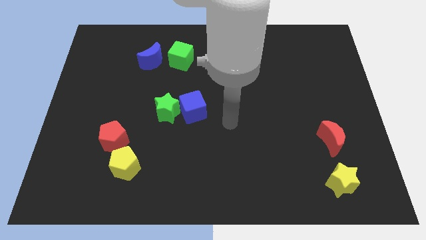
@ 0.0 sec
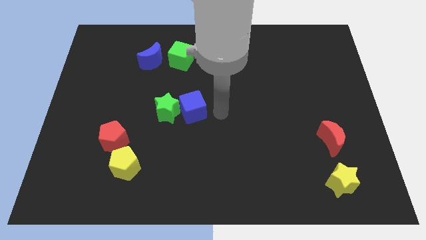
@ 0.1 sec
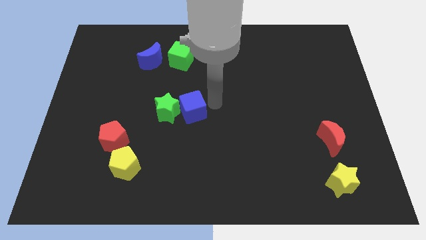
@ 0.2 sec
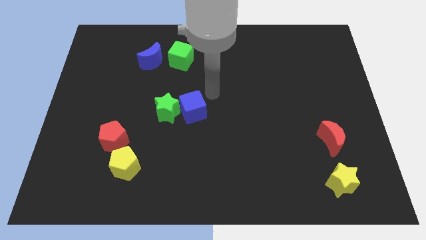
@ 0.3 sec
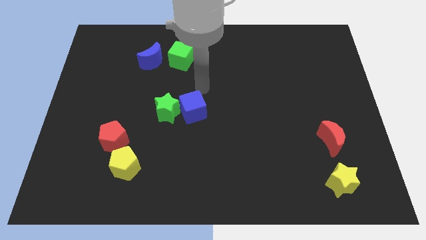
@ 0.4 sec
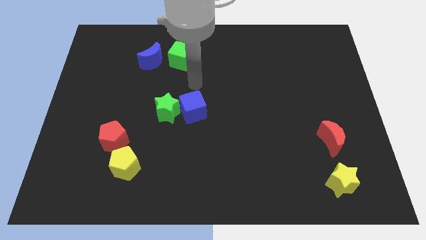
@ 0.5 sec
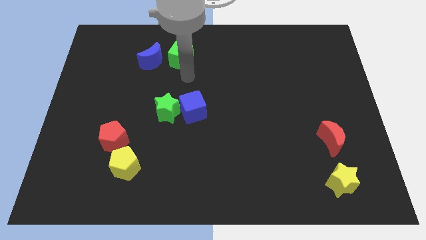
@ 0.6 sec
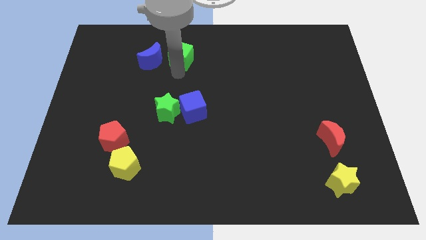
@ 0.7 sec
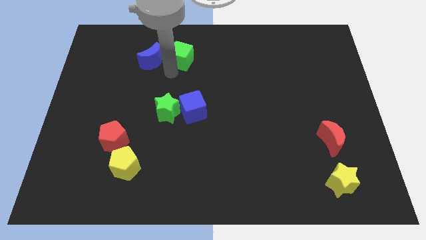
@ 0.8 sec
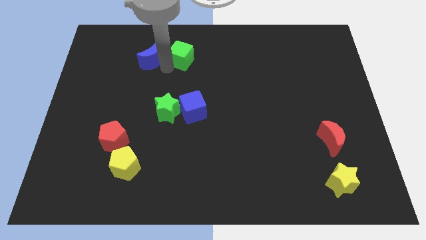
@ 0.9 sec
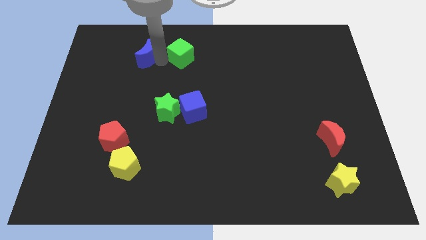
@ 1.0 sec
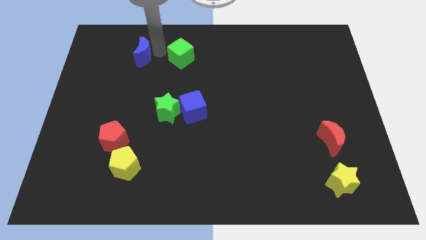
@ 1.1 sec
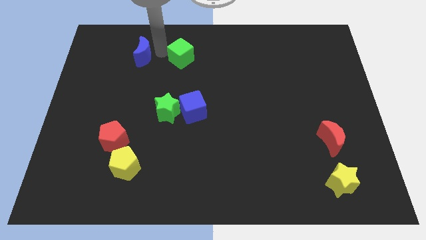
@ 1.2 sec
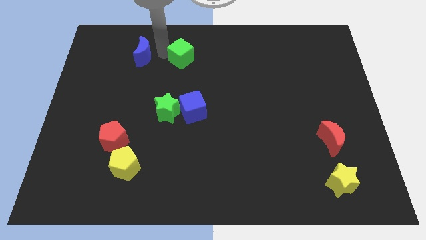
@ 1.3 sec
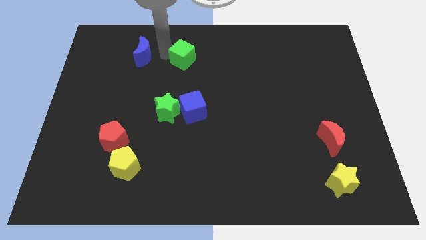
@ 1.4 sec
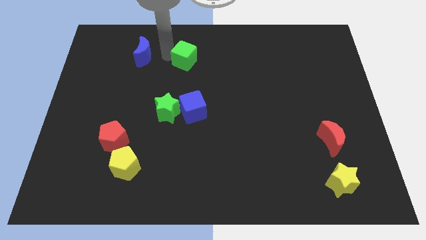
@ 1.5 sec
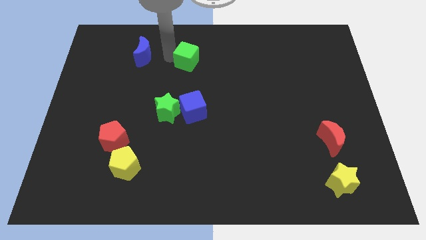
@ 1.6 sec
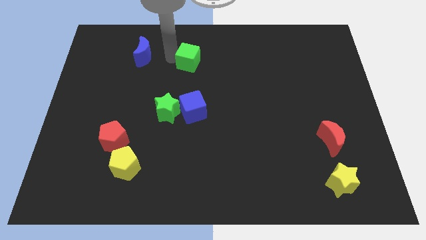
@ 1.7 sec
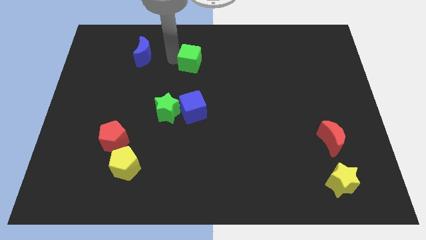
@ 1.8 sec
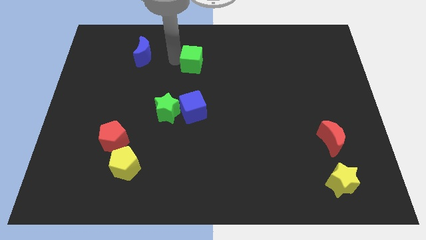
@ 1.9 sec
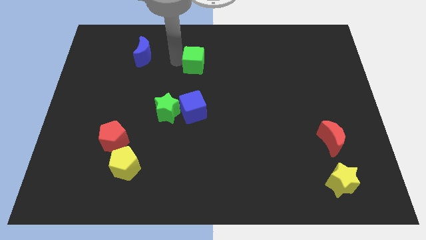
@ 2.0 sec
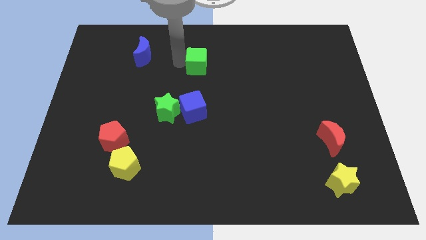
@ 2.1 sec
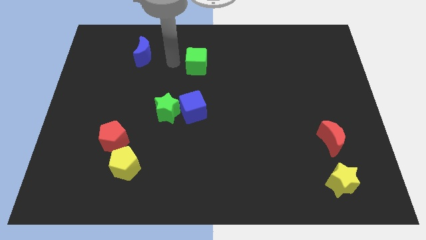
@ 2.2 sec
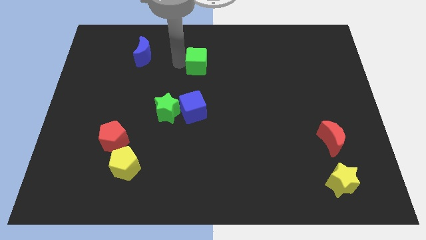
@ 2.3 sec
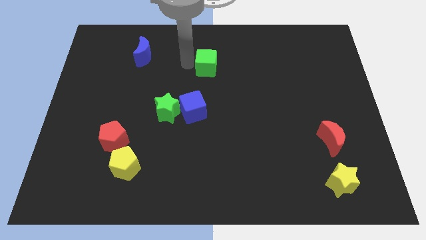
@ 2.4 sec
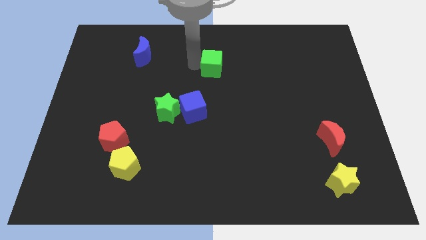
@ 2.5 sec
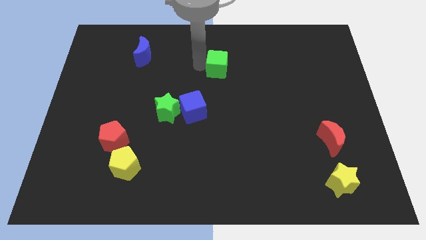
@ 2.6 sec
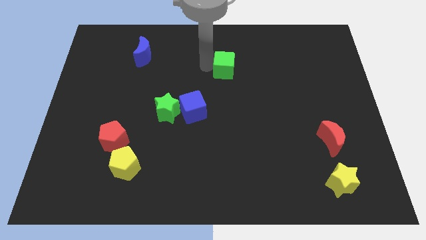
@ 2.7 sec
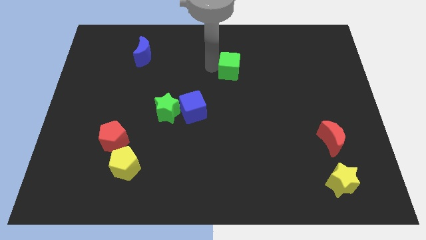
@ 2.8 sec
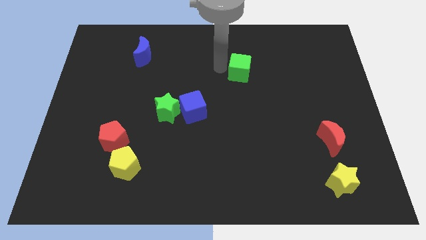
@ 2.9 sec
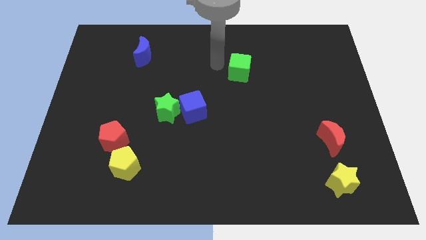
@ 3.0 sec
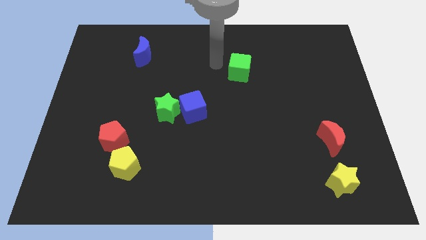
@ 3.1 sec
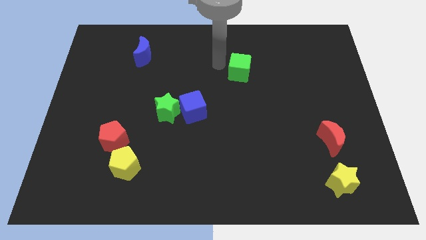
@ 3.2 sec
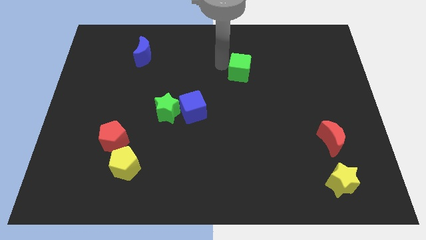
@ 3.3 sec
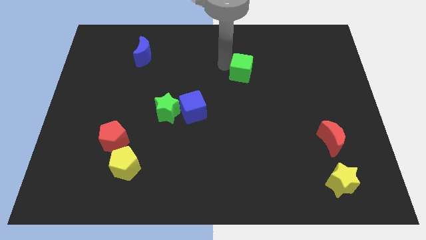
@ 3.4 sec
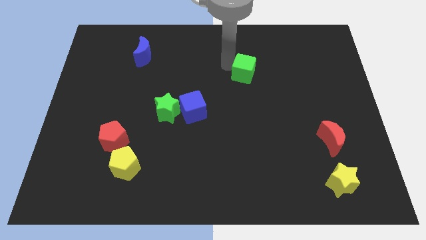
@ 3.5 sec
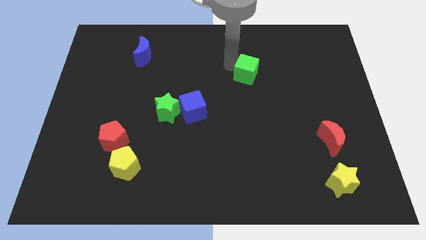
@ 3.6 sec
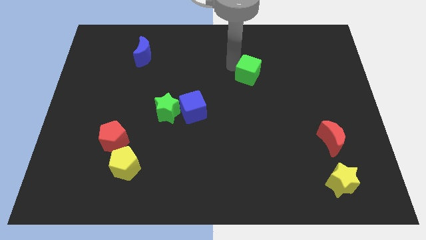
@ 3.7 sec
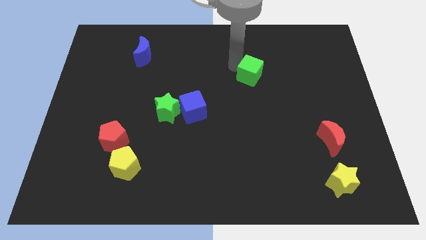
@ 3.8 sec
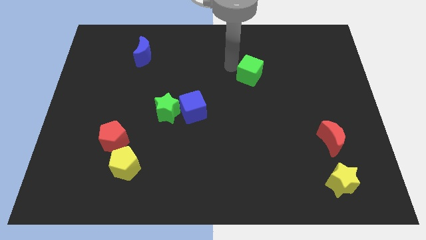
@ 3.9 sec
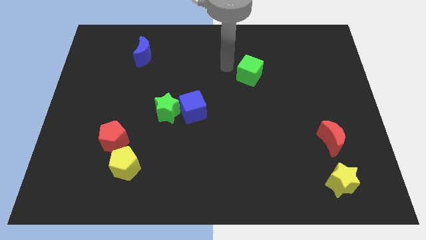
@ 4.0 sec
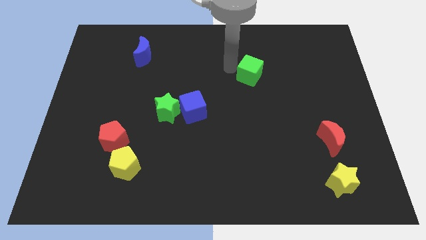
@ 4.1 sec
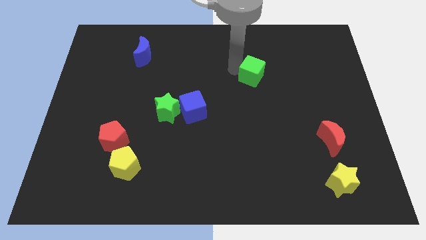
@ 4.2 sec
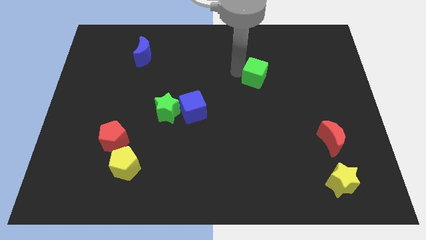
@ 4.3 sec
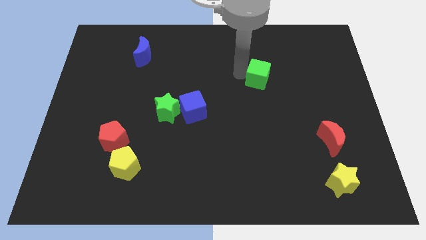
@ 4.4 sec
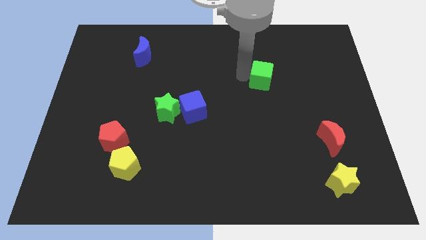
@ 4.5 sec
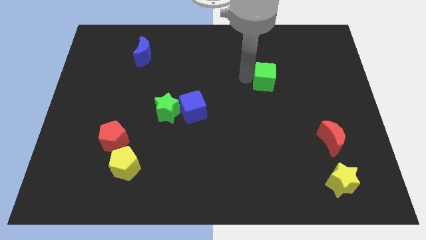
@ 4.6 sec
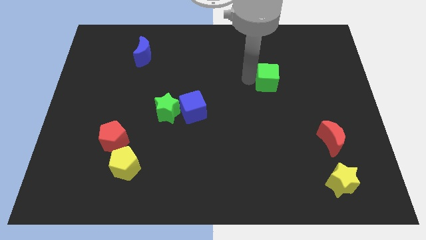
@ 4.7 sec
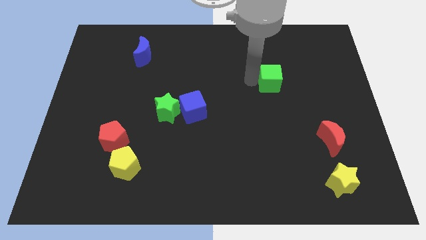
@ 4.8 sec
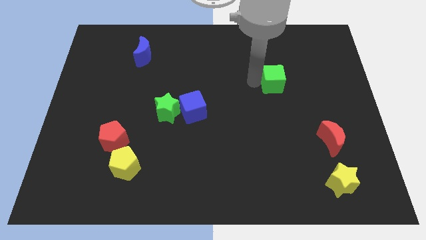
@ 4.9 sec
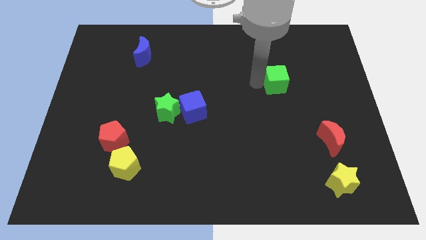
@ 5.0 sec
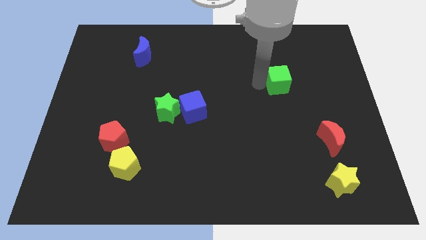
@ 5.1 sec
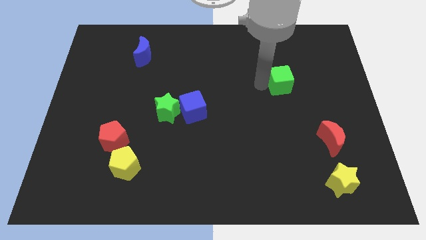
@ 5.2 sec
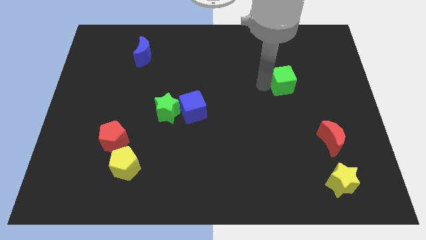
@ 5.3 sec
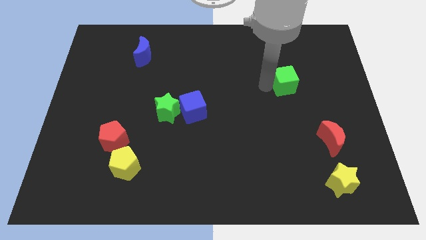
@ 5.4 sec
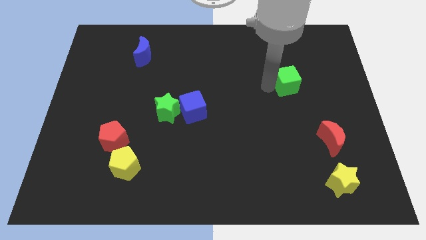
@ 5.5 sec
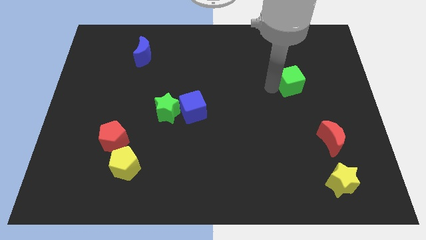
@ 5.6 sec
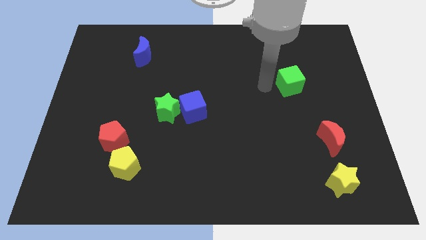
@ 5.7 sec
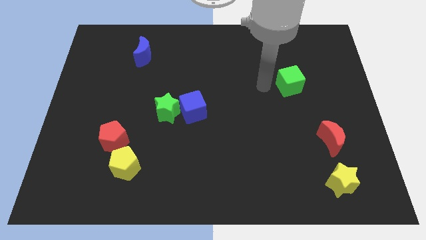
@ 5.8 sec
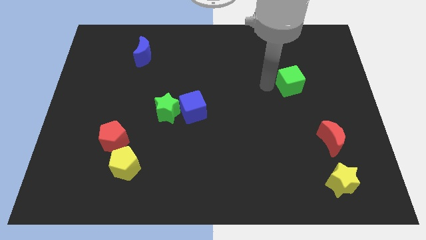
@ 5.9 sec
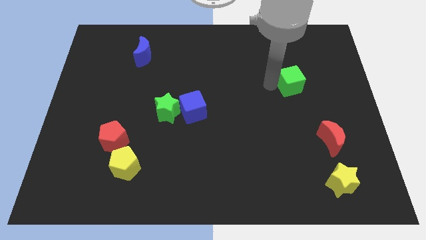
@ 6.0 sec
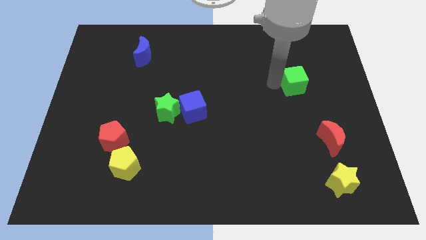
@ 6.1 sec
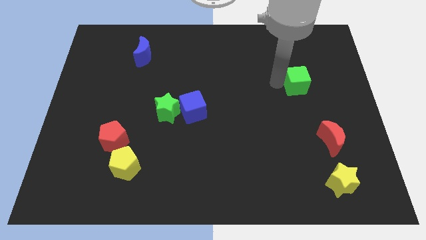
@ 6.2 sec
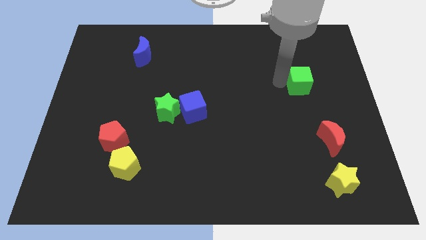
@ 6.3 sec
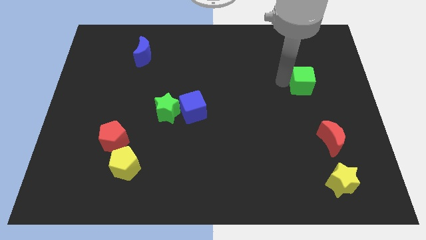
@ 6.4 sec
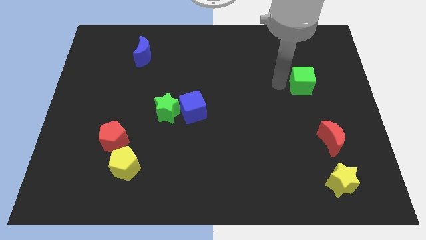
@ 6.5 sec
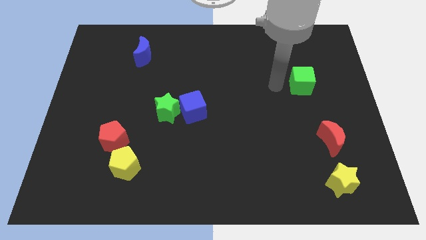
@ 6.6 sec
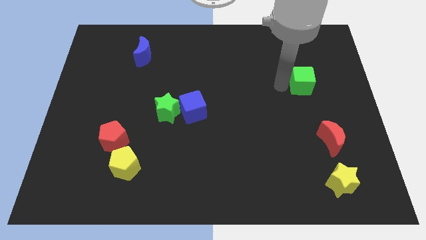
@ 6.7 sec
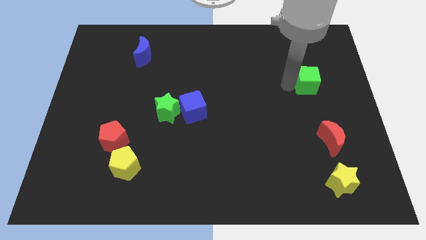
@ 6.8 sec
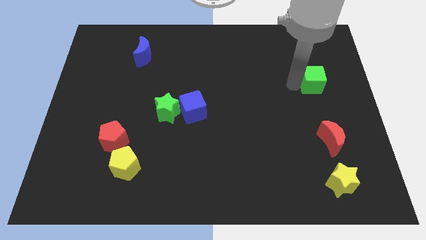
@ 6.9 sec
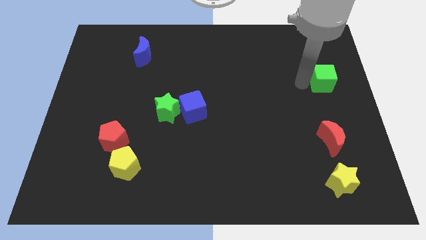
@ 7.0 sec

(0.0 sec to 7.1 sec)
move the green cube to the right side

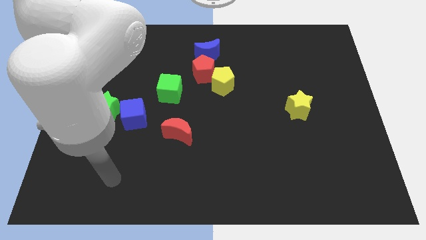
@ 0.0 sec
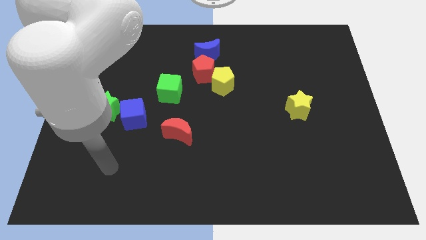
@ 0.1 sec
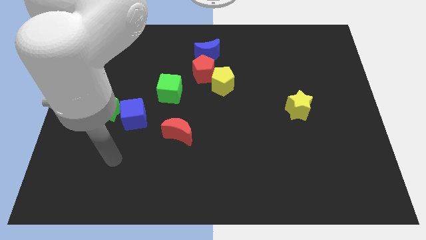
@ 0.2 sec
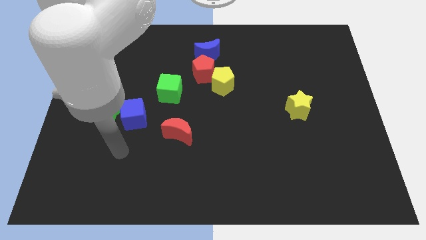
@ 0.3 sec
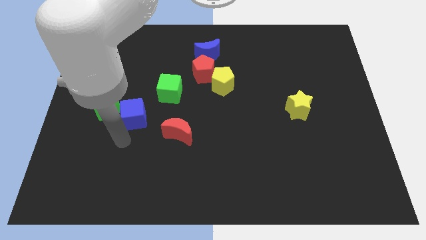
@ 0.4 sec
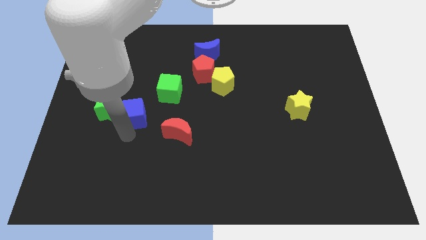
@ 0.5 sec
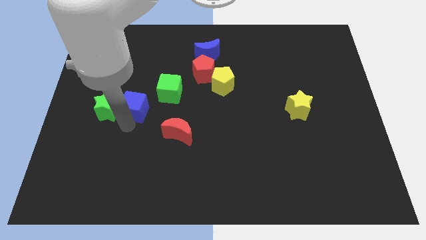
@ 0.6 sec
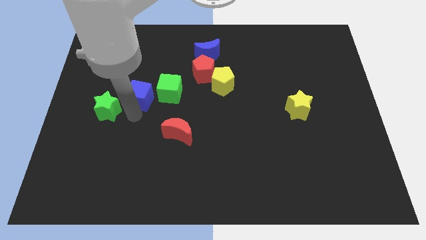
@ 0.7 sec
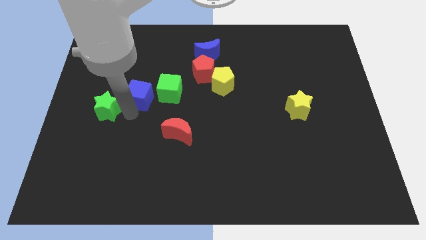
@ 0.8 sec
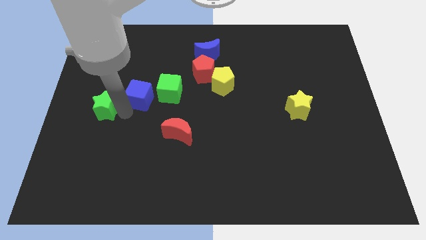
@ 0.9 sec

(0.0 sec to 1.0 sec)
slide the green star to the center left
